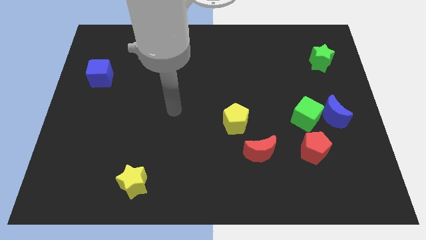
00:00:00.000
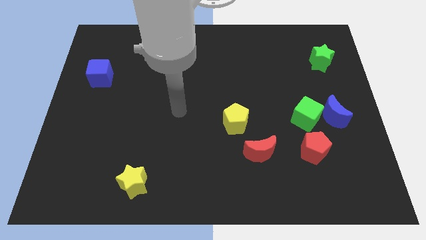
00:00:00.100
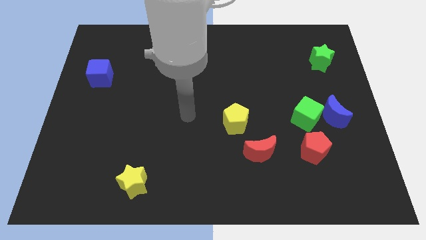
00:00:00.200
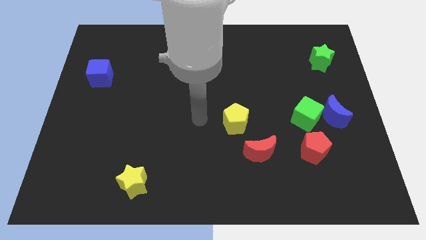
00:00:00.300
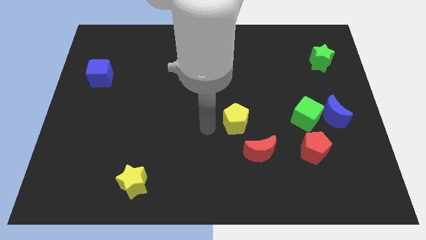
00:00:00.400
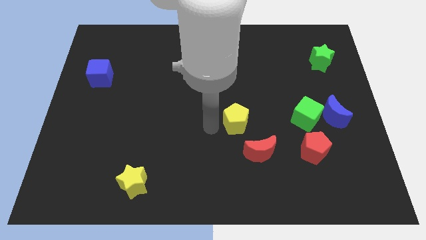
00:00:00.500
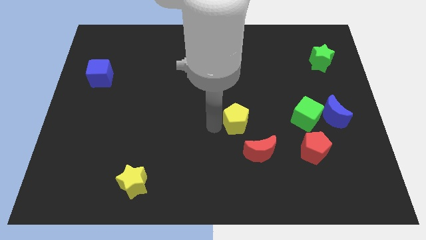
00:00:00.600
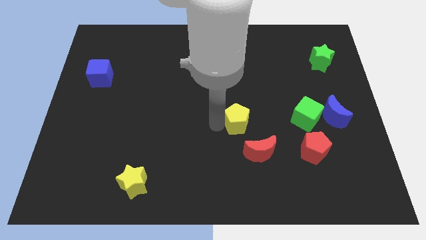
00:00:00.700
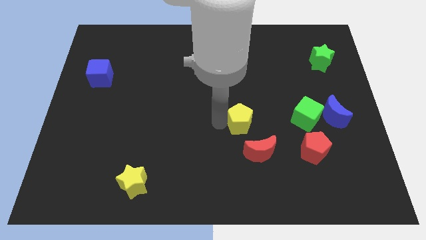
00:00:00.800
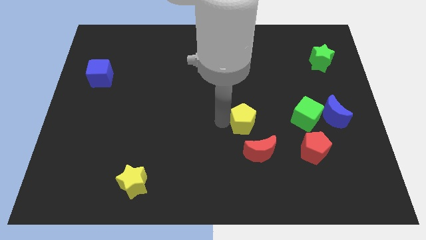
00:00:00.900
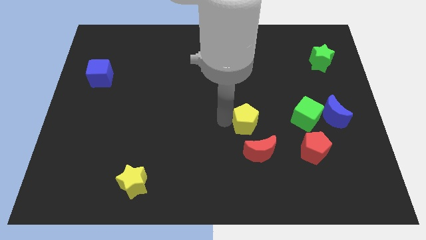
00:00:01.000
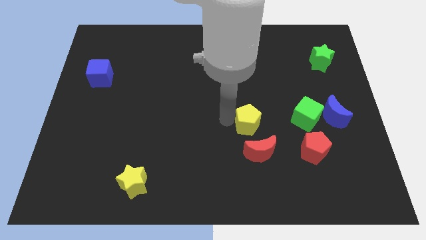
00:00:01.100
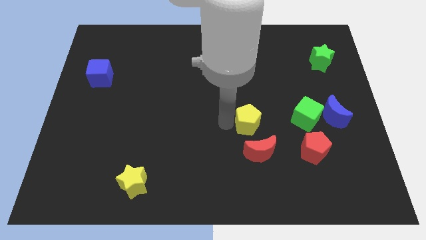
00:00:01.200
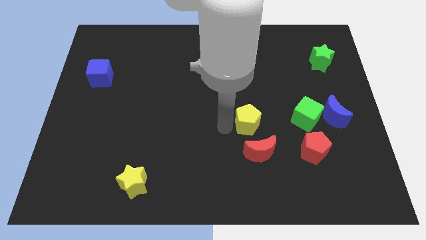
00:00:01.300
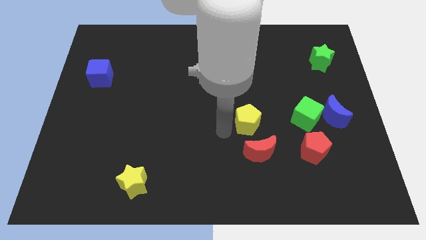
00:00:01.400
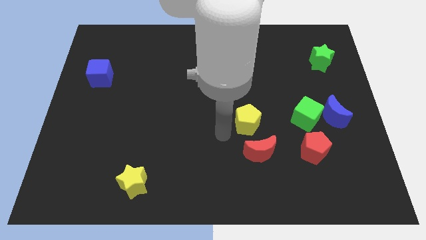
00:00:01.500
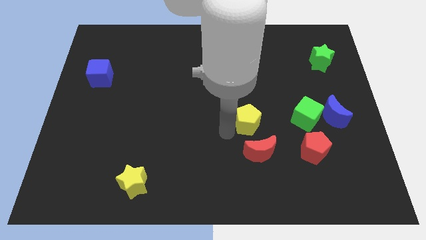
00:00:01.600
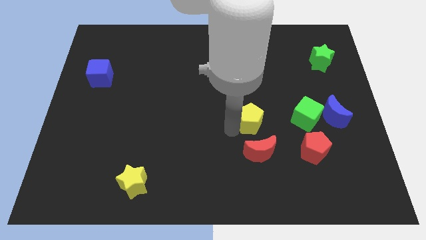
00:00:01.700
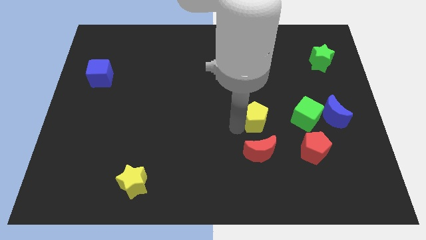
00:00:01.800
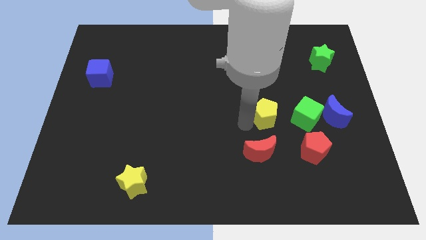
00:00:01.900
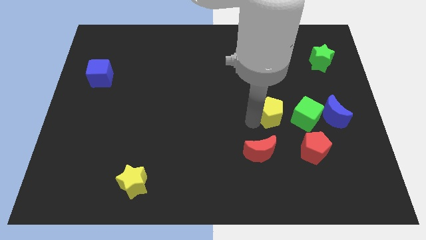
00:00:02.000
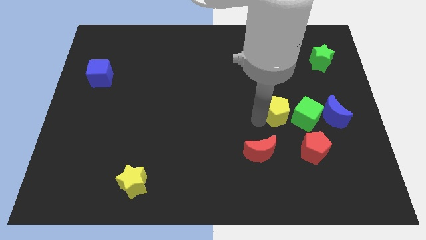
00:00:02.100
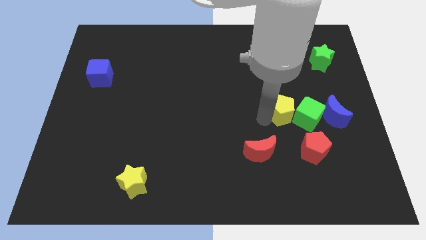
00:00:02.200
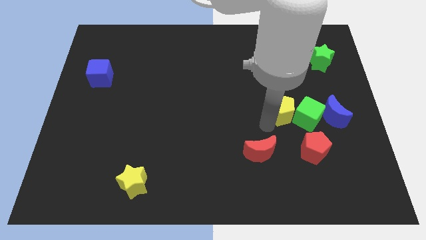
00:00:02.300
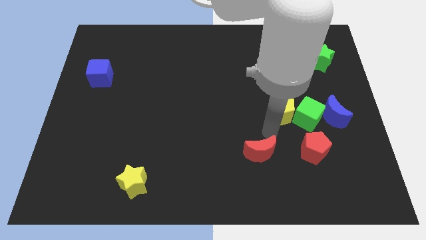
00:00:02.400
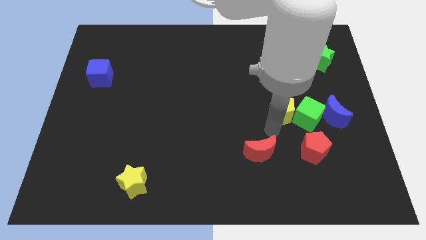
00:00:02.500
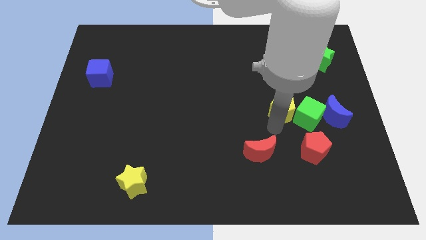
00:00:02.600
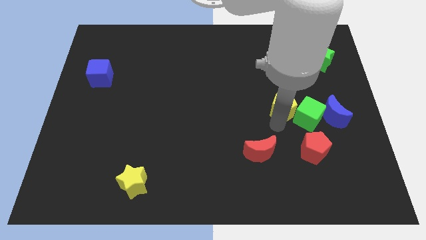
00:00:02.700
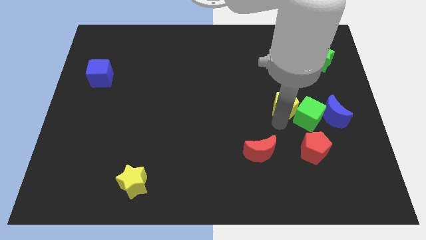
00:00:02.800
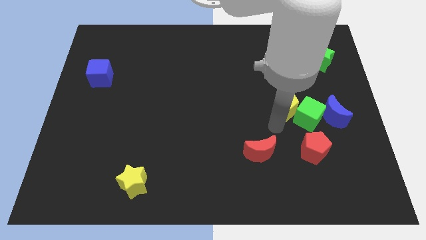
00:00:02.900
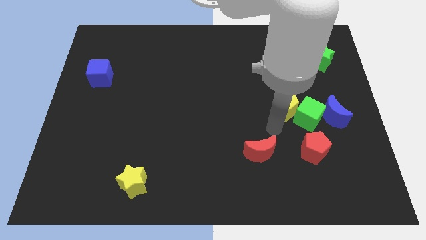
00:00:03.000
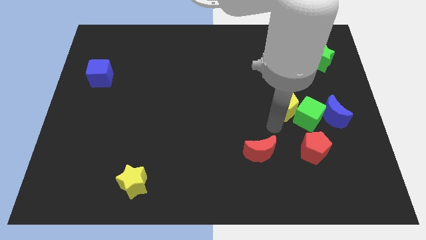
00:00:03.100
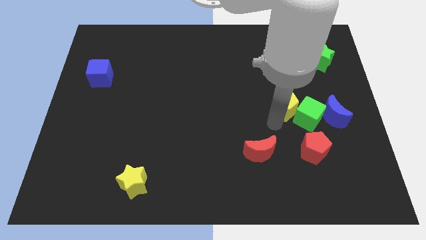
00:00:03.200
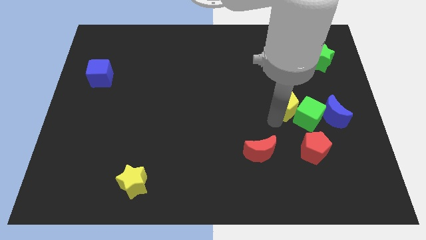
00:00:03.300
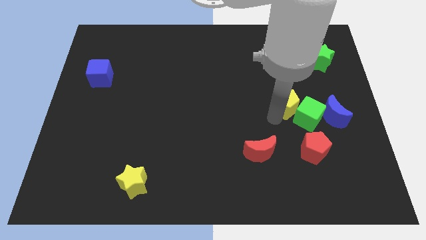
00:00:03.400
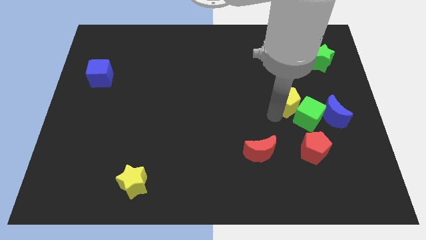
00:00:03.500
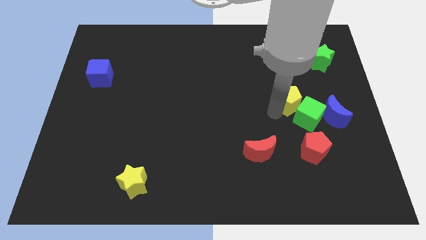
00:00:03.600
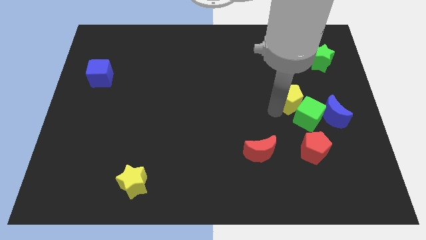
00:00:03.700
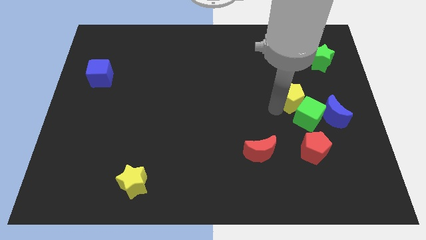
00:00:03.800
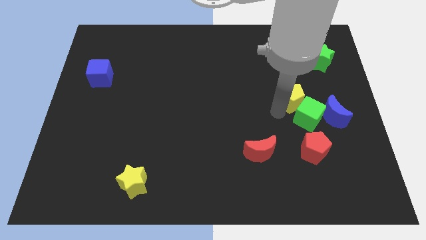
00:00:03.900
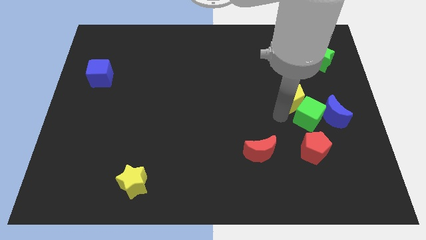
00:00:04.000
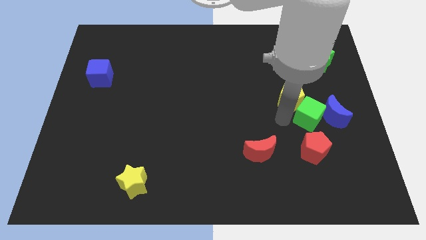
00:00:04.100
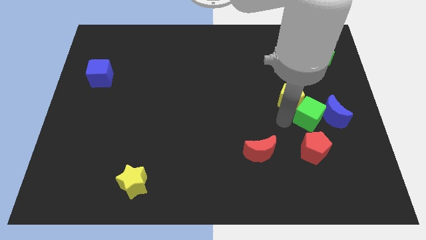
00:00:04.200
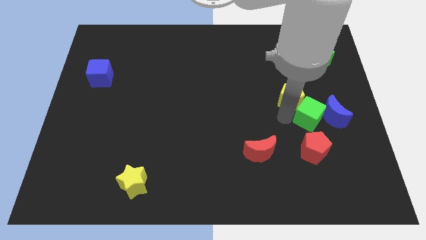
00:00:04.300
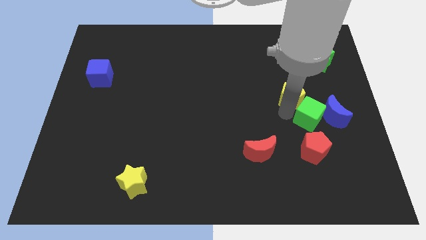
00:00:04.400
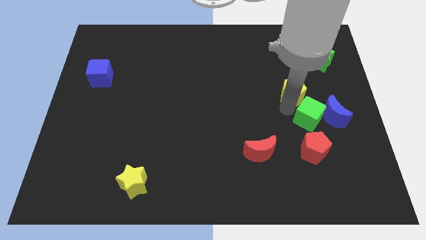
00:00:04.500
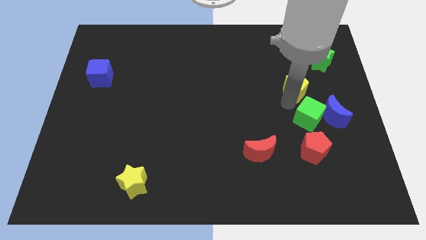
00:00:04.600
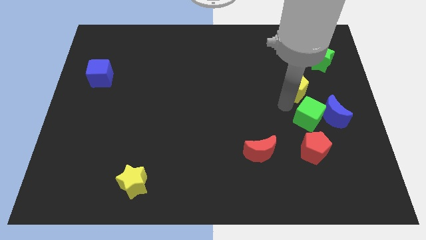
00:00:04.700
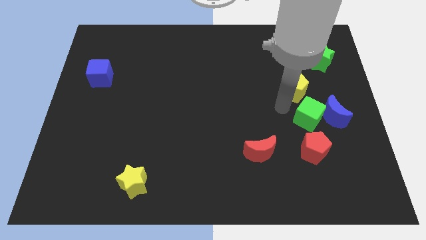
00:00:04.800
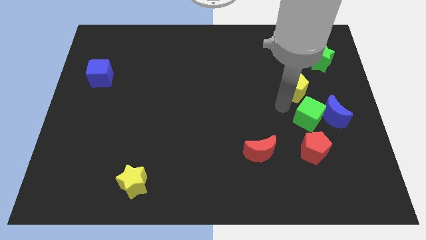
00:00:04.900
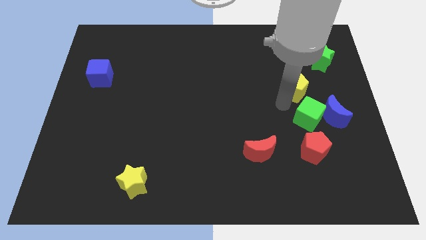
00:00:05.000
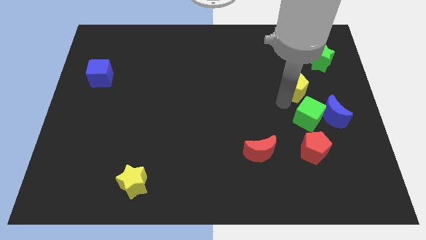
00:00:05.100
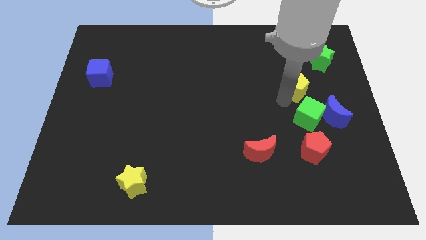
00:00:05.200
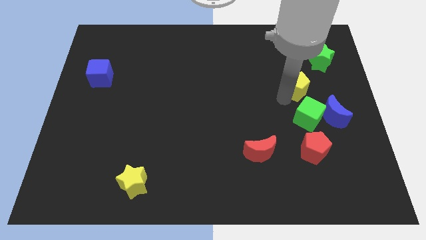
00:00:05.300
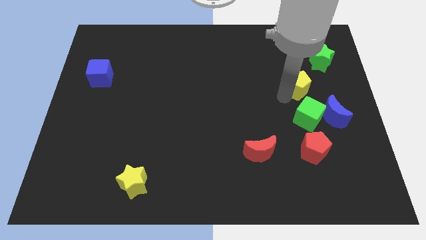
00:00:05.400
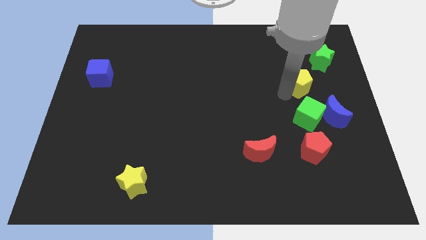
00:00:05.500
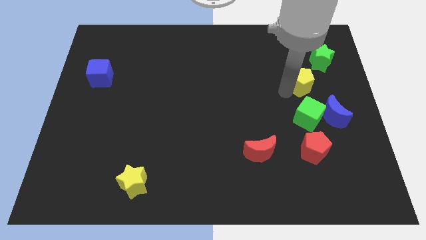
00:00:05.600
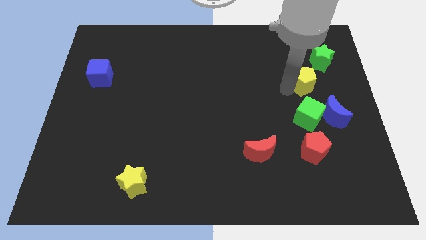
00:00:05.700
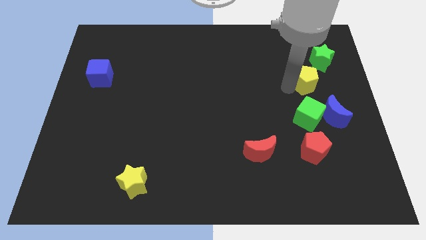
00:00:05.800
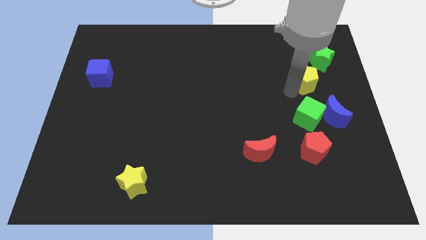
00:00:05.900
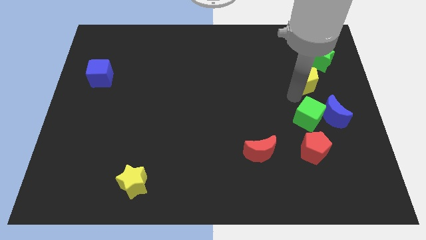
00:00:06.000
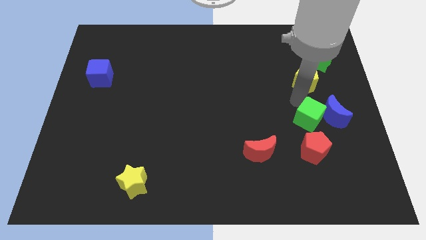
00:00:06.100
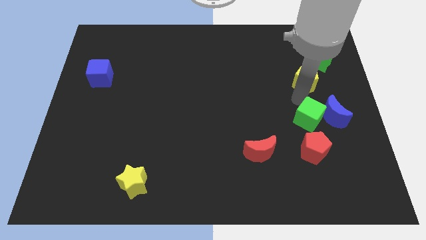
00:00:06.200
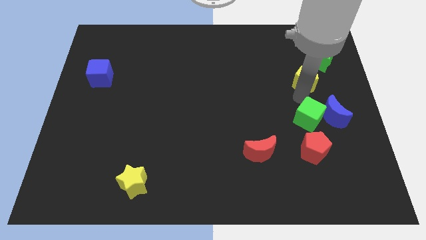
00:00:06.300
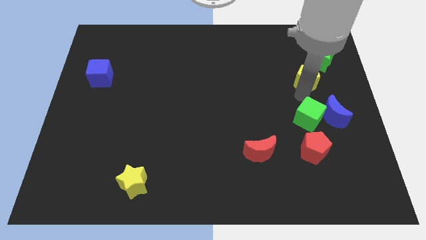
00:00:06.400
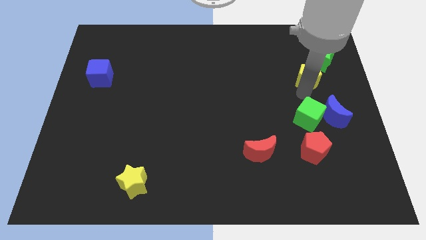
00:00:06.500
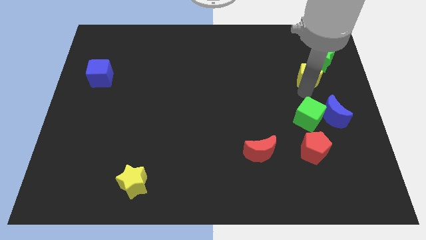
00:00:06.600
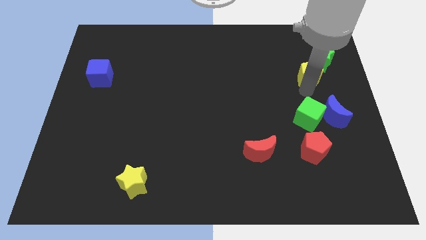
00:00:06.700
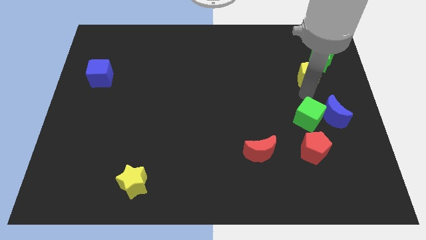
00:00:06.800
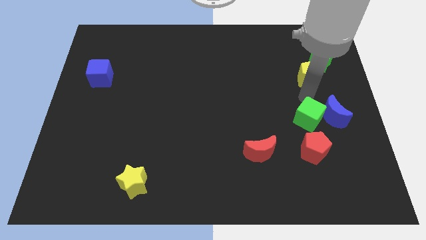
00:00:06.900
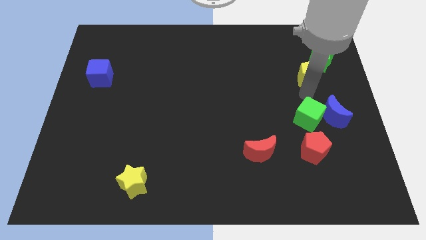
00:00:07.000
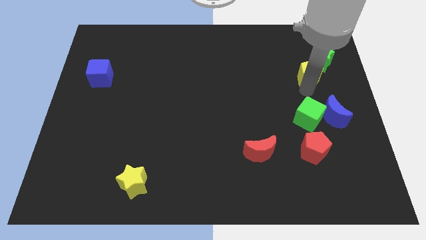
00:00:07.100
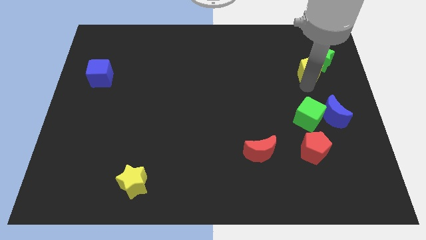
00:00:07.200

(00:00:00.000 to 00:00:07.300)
move the yellow pentagon next to the green star

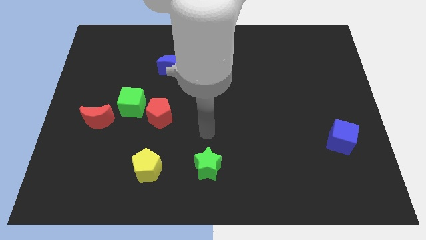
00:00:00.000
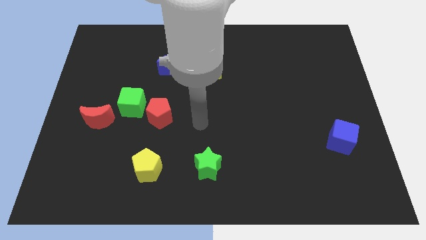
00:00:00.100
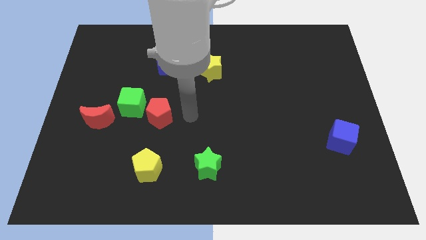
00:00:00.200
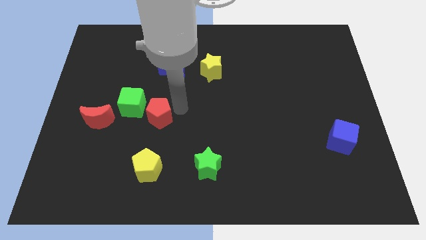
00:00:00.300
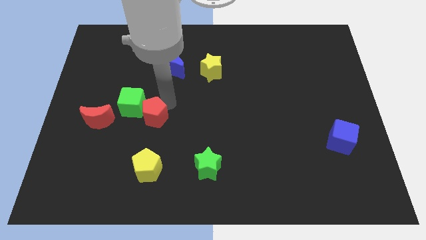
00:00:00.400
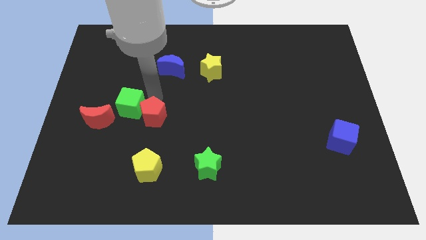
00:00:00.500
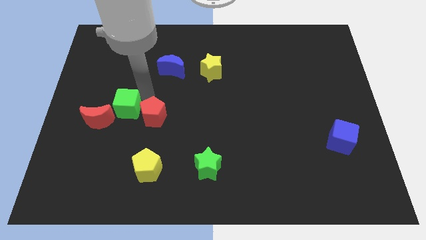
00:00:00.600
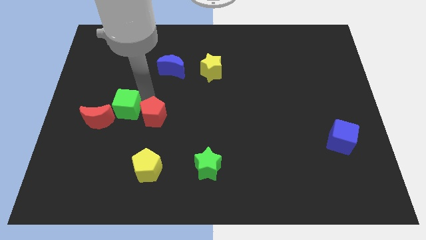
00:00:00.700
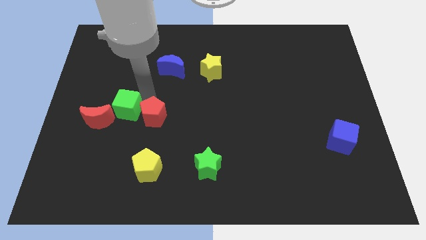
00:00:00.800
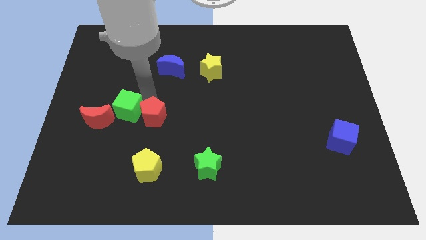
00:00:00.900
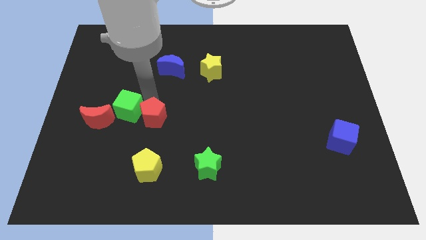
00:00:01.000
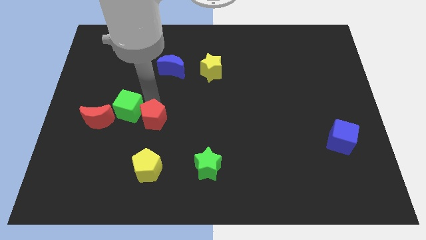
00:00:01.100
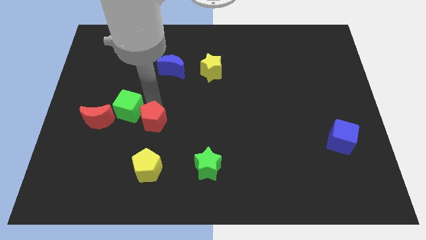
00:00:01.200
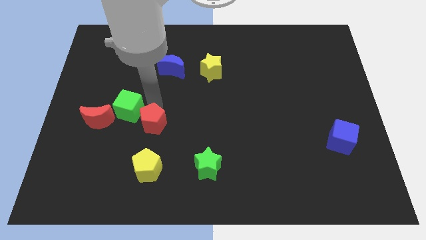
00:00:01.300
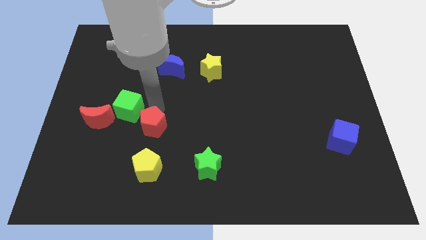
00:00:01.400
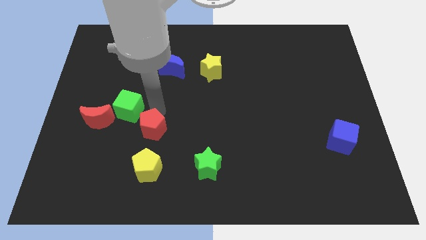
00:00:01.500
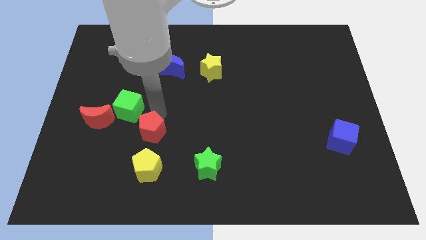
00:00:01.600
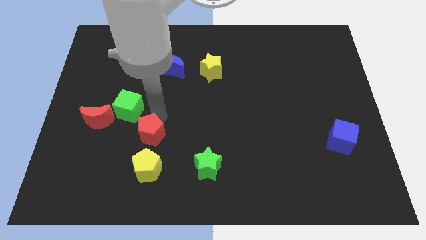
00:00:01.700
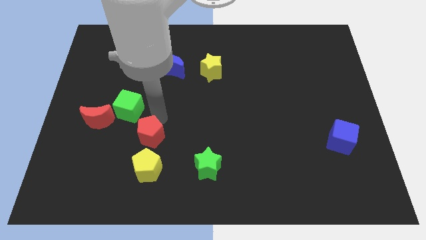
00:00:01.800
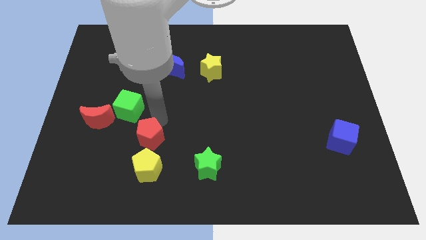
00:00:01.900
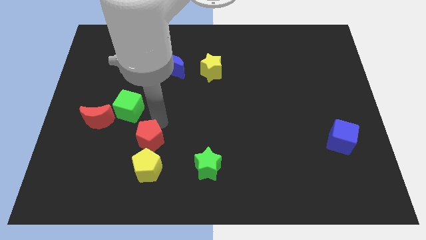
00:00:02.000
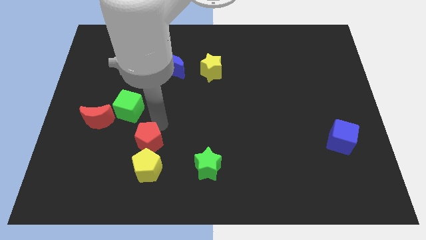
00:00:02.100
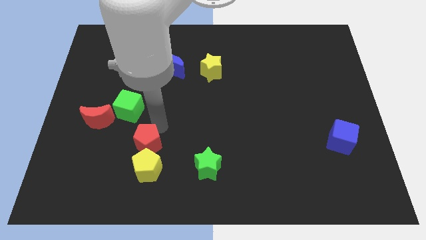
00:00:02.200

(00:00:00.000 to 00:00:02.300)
push the red pentagon towards the yellow pentagon
